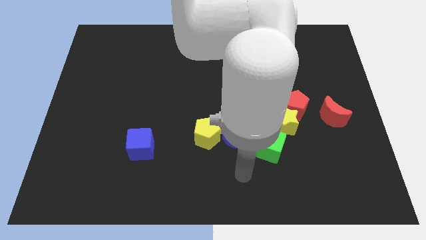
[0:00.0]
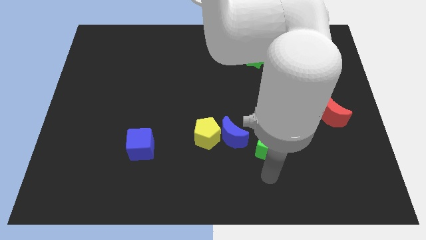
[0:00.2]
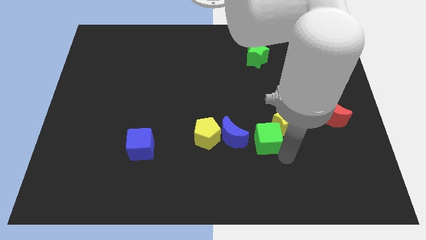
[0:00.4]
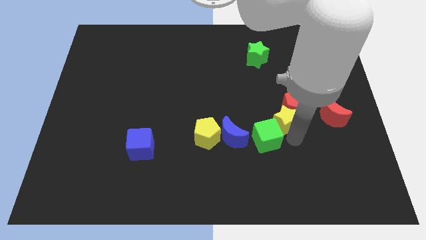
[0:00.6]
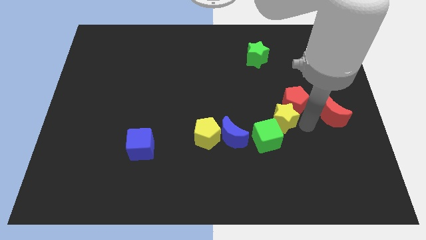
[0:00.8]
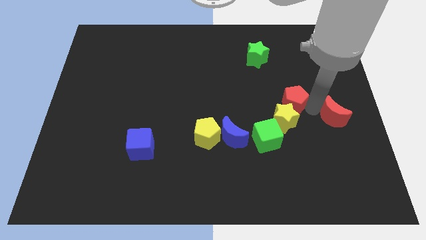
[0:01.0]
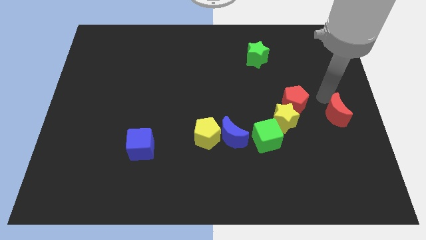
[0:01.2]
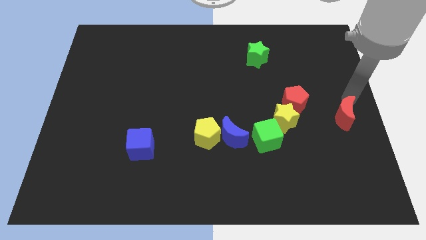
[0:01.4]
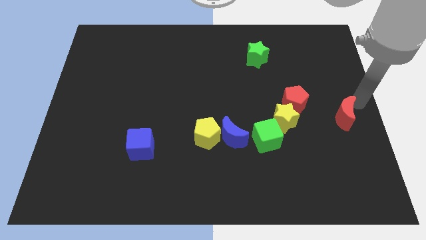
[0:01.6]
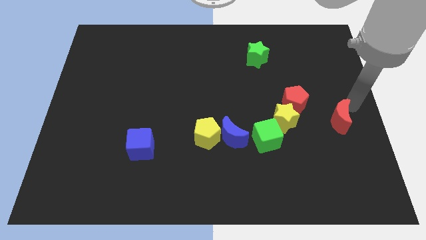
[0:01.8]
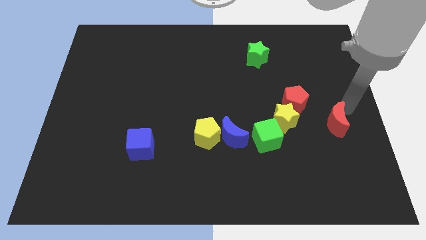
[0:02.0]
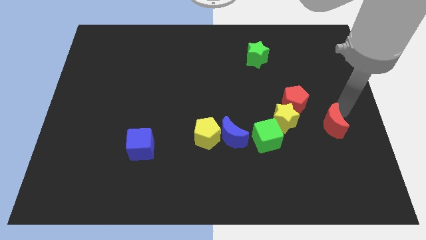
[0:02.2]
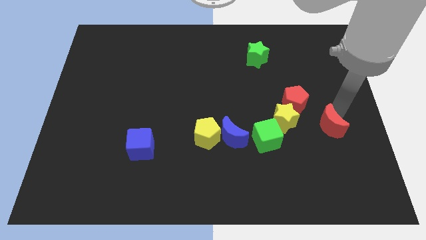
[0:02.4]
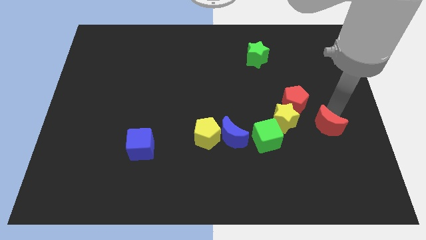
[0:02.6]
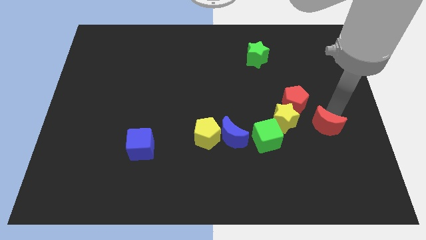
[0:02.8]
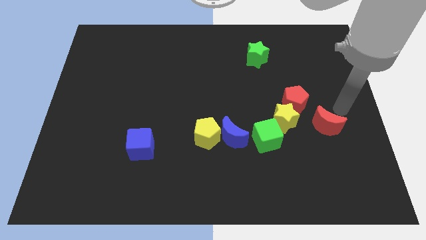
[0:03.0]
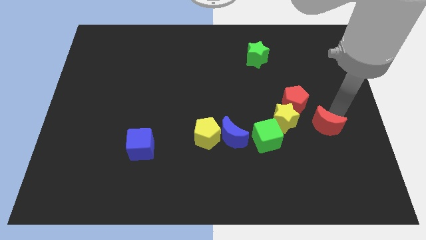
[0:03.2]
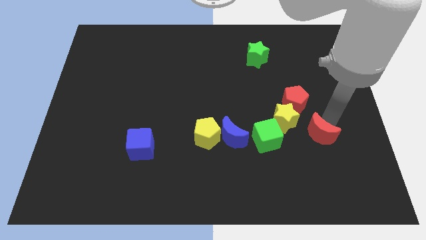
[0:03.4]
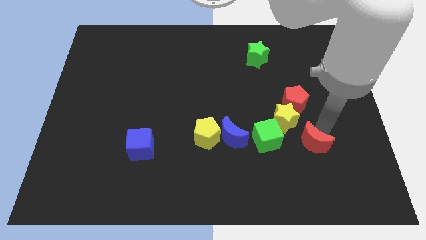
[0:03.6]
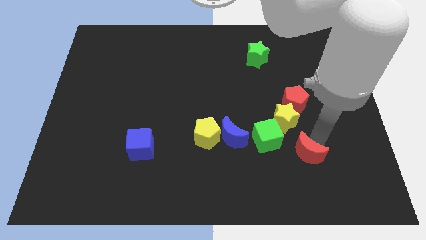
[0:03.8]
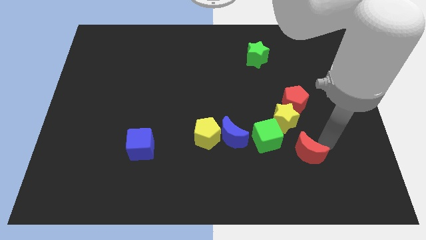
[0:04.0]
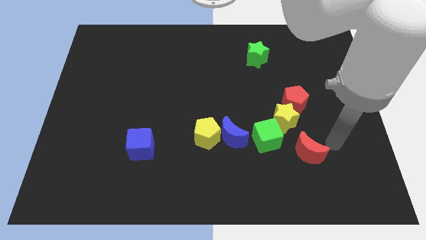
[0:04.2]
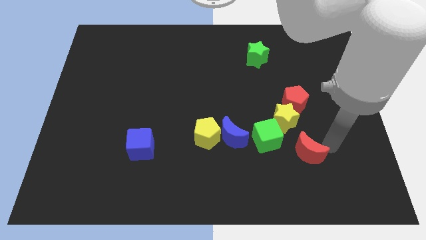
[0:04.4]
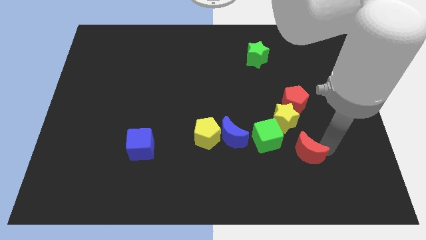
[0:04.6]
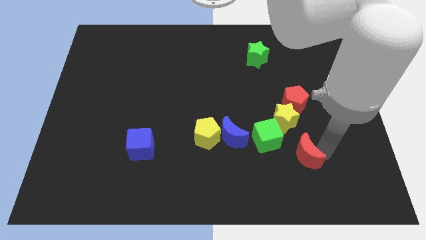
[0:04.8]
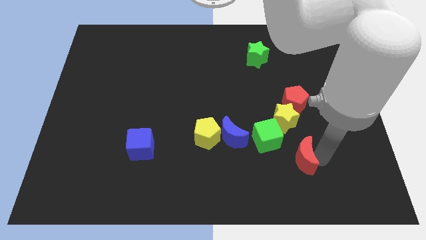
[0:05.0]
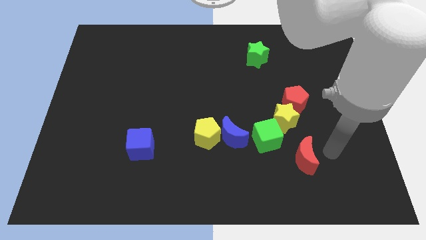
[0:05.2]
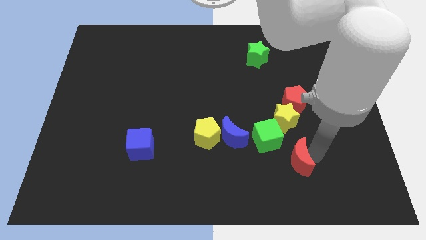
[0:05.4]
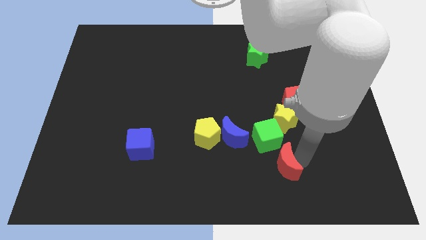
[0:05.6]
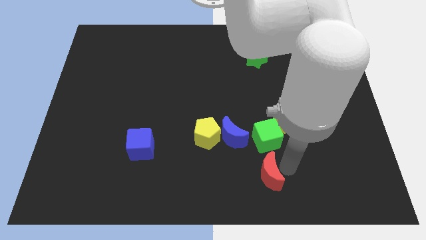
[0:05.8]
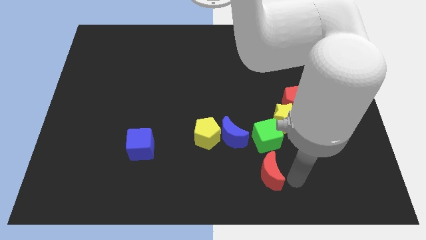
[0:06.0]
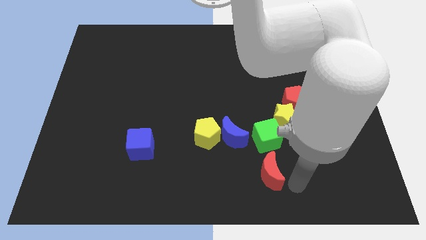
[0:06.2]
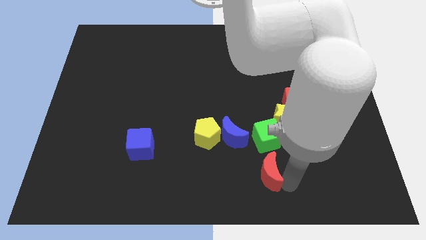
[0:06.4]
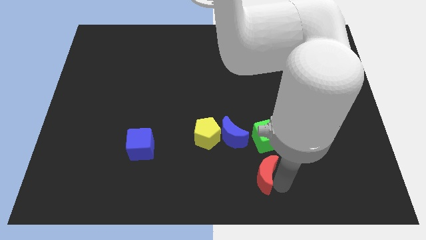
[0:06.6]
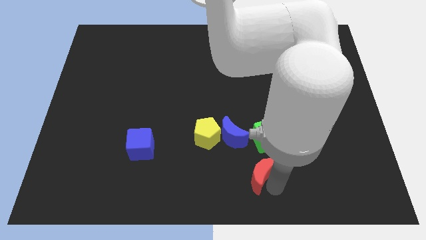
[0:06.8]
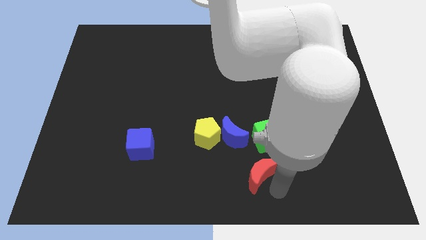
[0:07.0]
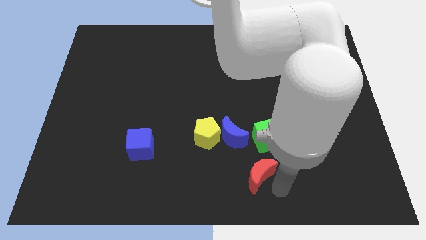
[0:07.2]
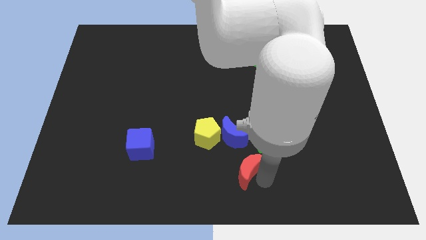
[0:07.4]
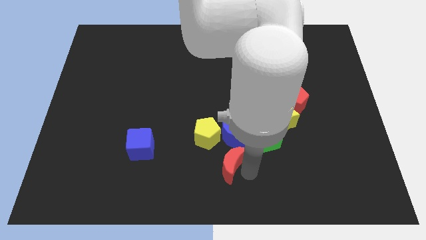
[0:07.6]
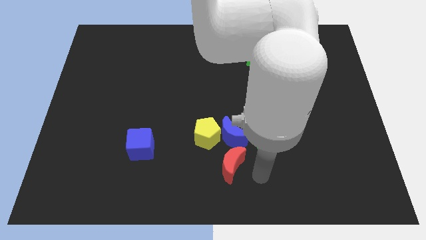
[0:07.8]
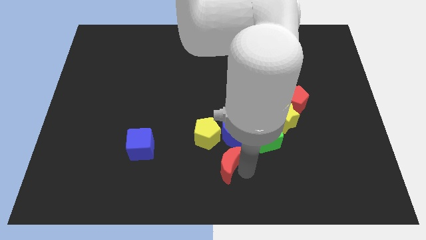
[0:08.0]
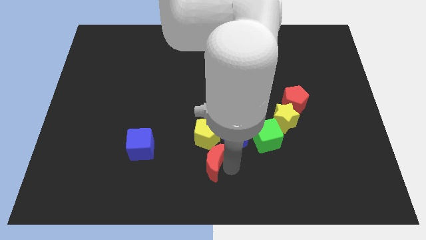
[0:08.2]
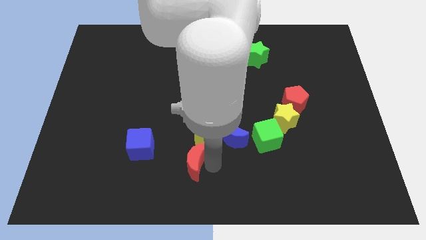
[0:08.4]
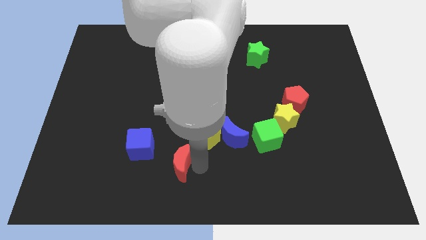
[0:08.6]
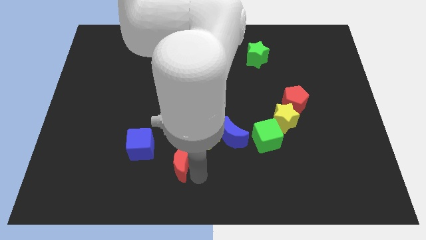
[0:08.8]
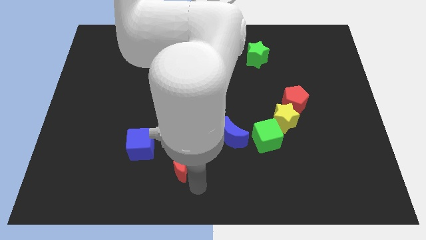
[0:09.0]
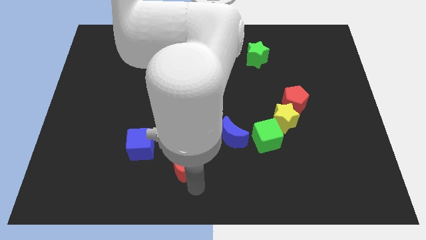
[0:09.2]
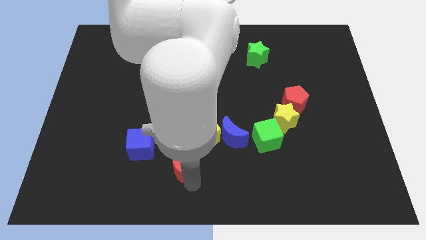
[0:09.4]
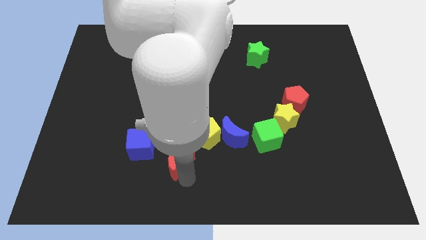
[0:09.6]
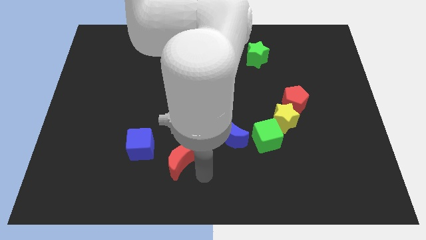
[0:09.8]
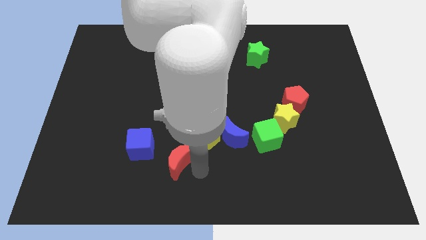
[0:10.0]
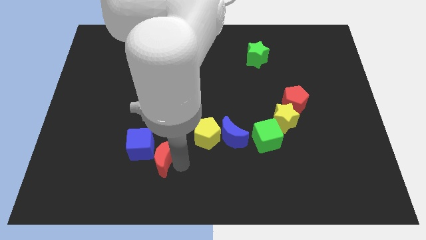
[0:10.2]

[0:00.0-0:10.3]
push the red moon towards the blue cube

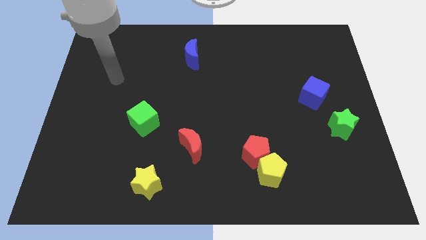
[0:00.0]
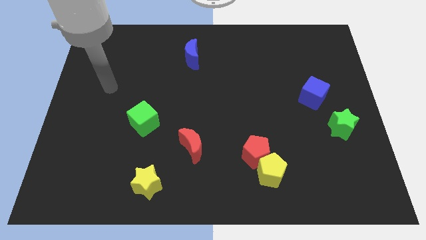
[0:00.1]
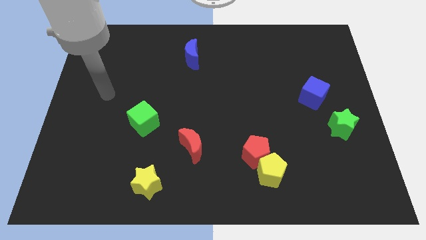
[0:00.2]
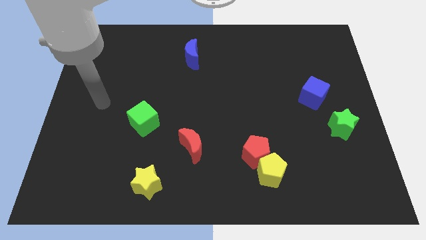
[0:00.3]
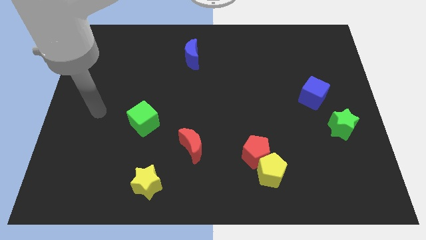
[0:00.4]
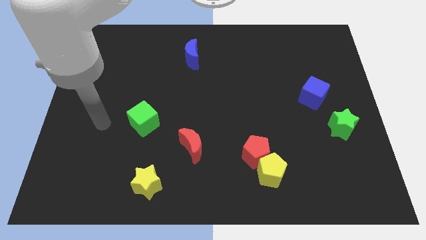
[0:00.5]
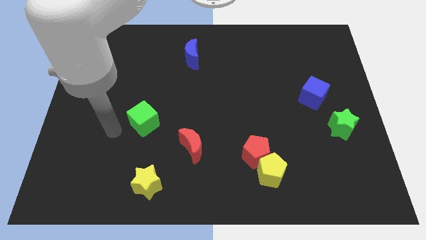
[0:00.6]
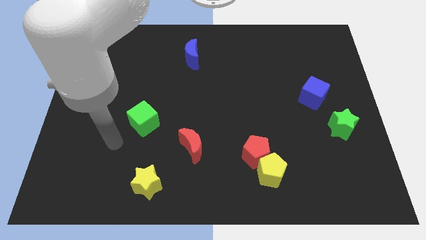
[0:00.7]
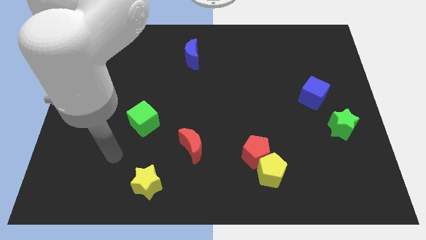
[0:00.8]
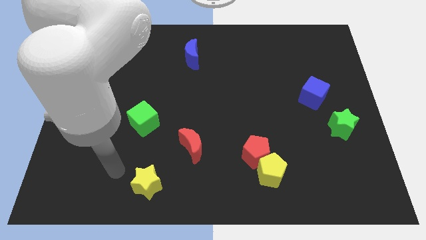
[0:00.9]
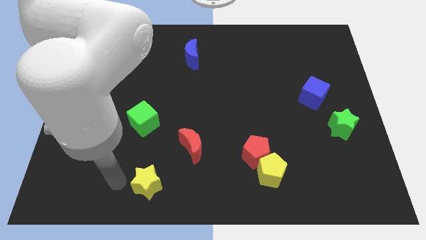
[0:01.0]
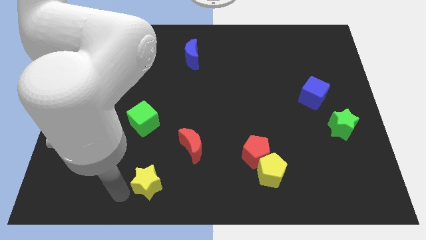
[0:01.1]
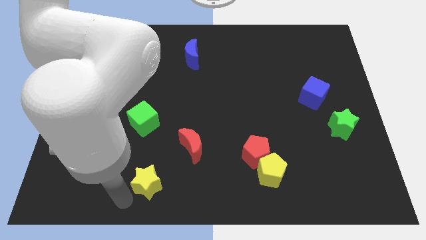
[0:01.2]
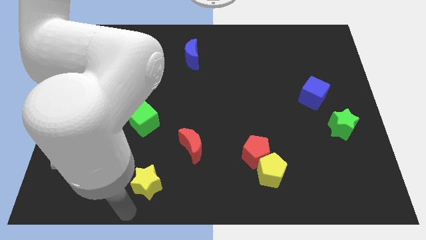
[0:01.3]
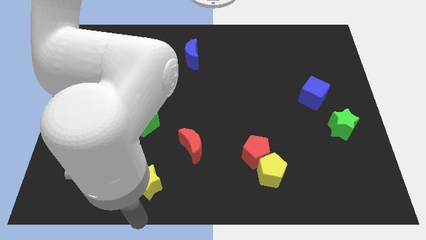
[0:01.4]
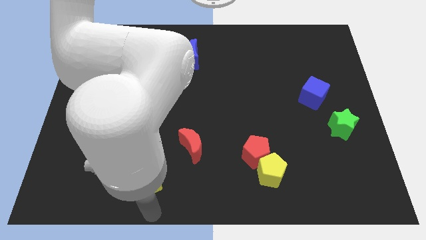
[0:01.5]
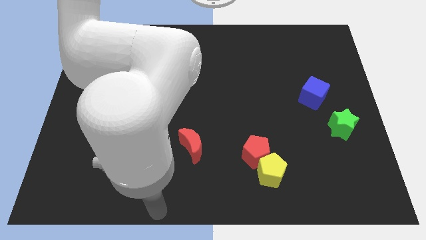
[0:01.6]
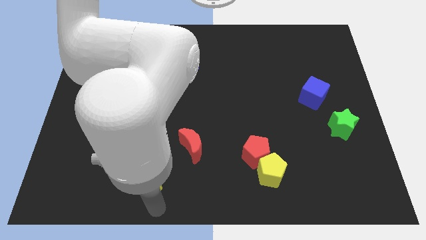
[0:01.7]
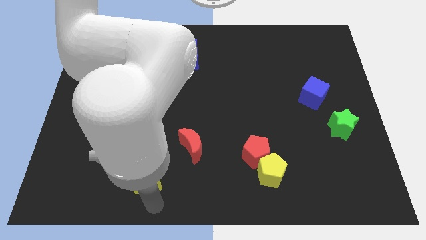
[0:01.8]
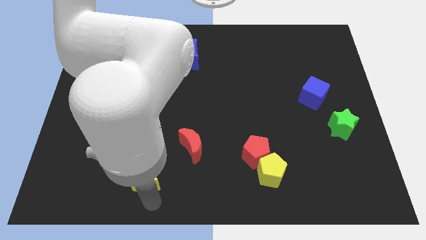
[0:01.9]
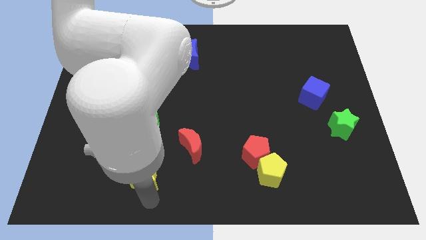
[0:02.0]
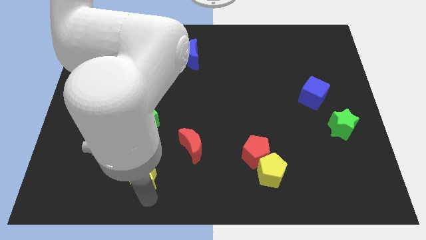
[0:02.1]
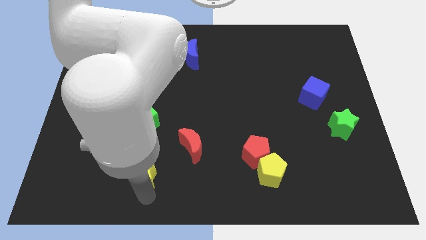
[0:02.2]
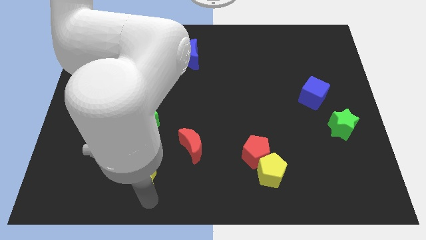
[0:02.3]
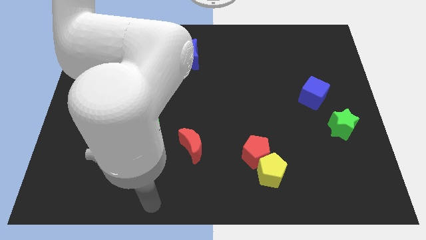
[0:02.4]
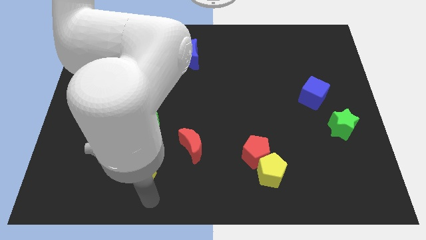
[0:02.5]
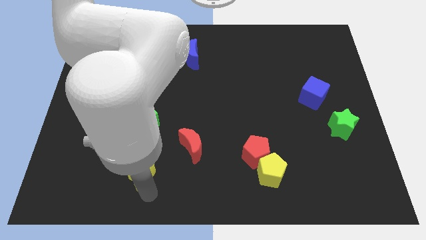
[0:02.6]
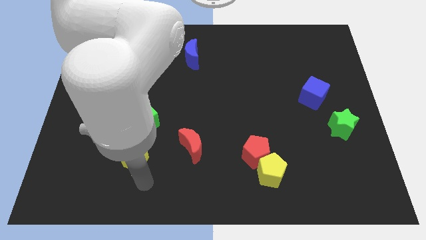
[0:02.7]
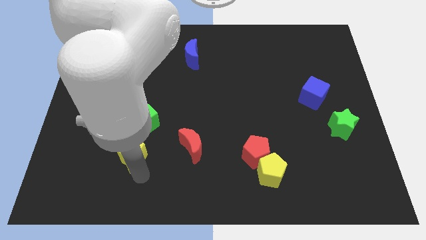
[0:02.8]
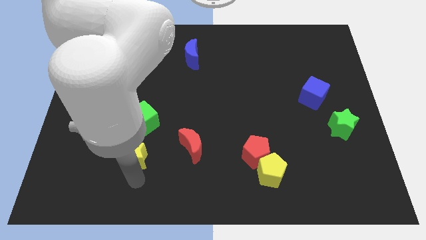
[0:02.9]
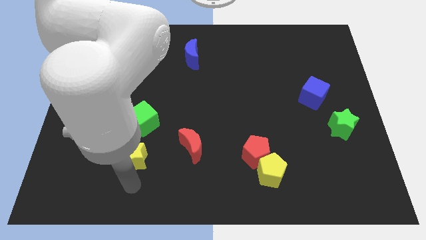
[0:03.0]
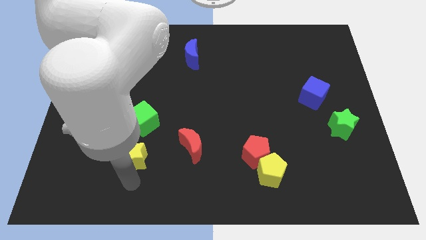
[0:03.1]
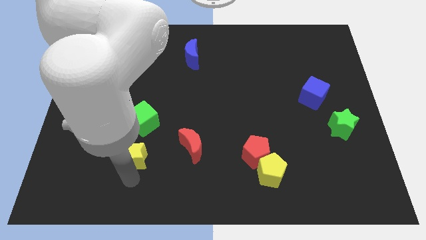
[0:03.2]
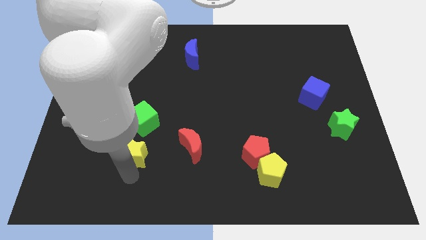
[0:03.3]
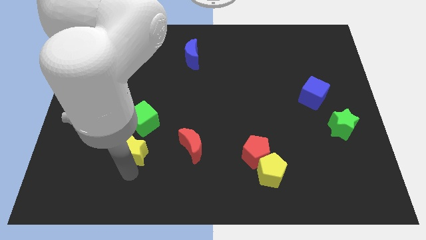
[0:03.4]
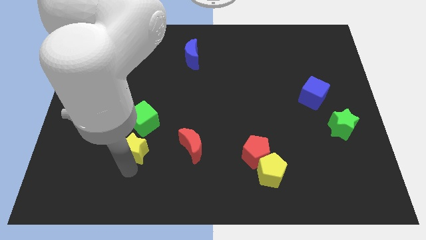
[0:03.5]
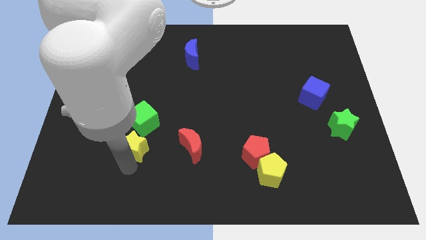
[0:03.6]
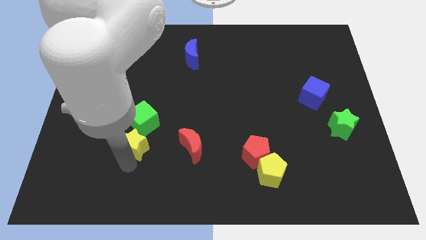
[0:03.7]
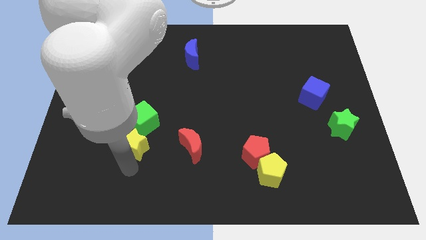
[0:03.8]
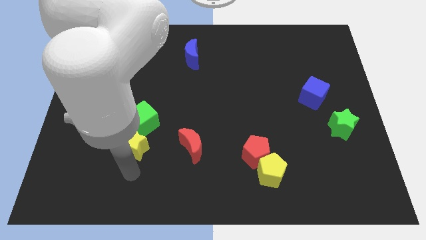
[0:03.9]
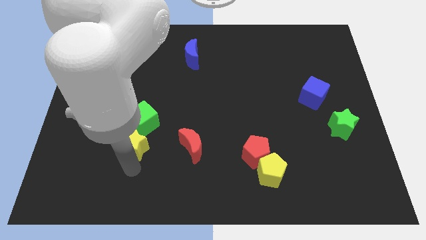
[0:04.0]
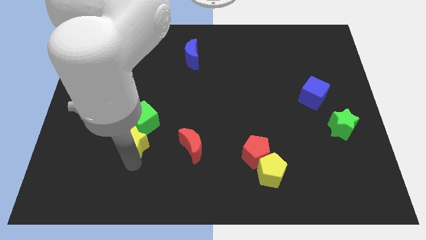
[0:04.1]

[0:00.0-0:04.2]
put the yellow star to the green cube
